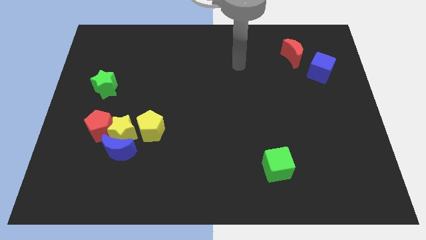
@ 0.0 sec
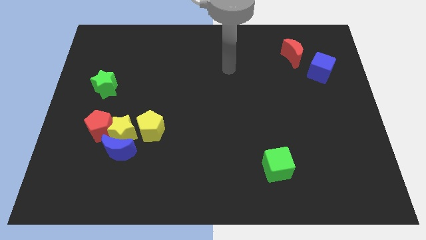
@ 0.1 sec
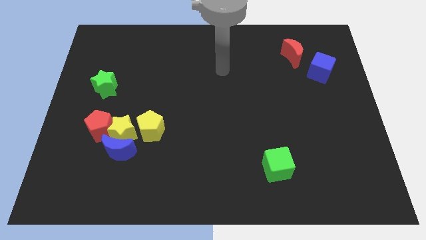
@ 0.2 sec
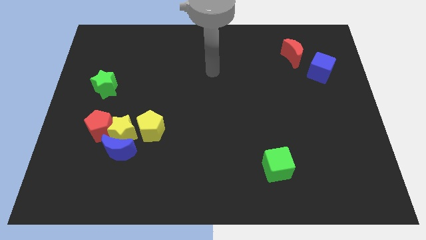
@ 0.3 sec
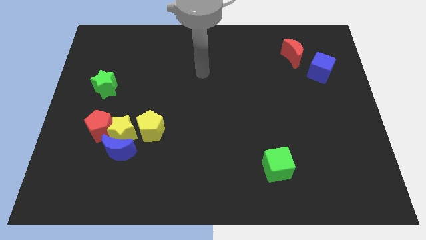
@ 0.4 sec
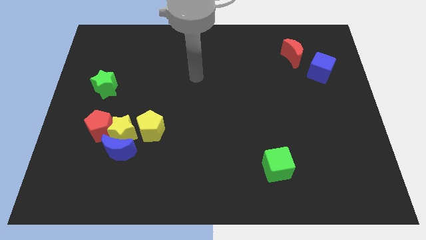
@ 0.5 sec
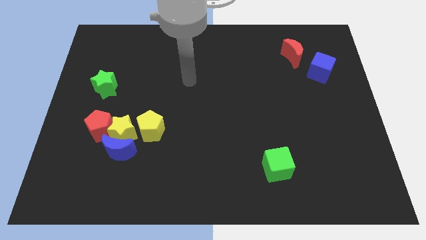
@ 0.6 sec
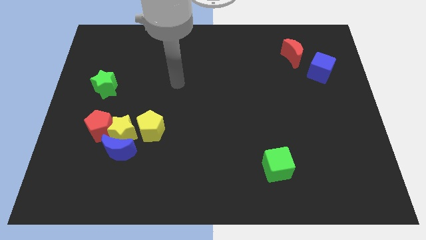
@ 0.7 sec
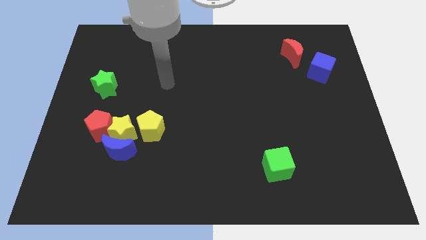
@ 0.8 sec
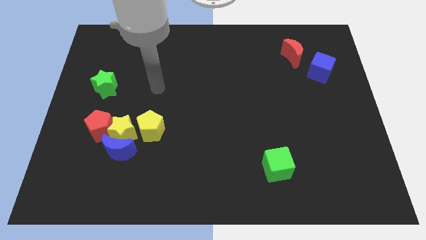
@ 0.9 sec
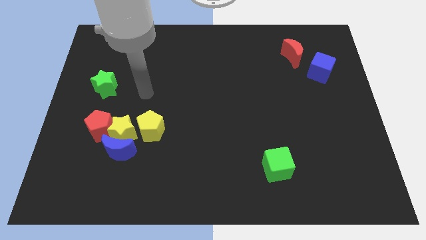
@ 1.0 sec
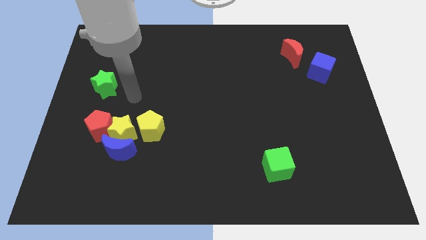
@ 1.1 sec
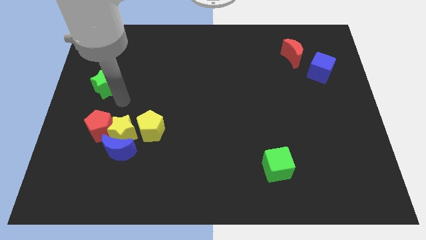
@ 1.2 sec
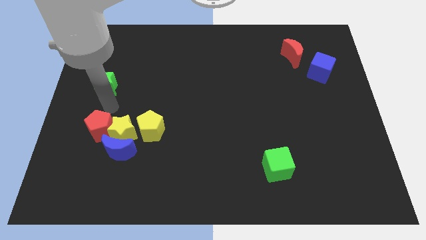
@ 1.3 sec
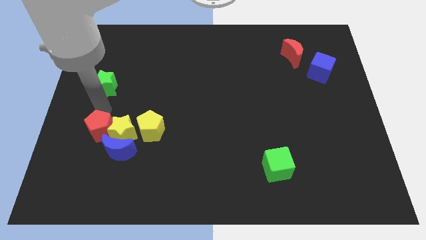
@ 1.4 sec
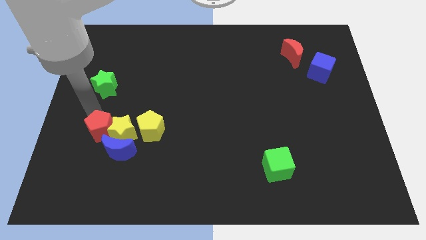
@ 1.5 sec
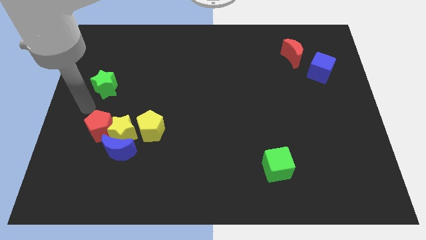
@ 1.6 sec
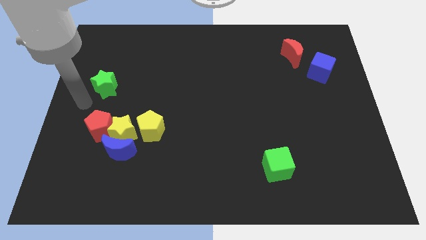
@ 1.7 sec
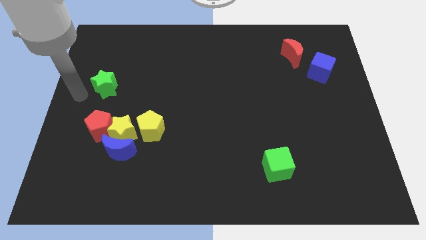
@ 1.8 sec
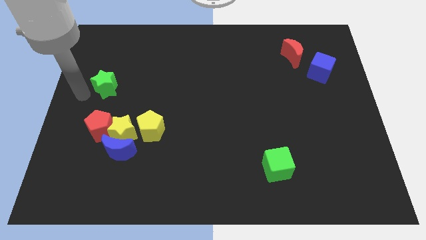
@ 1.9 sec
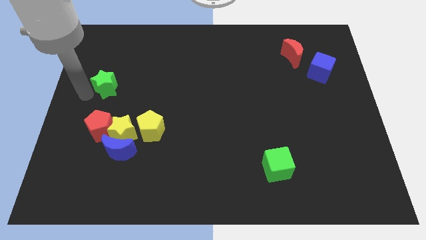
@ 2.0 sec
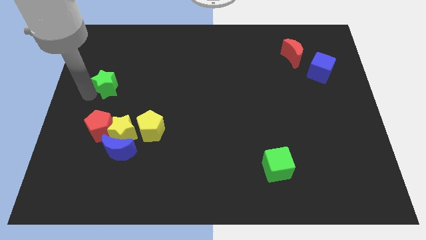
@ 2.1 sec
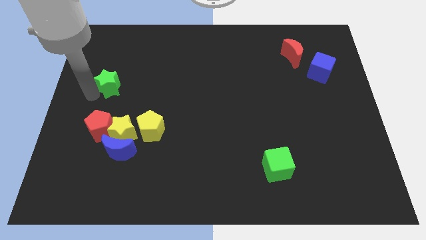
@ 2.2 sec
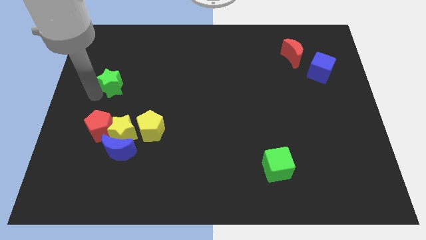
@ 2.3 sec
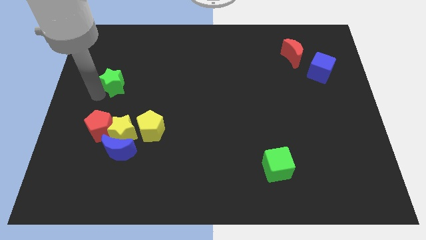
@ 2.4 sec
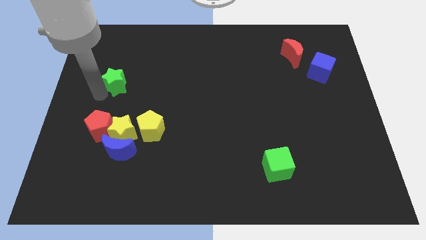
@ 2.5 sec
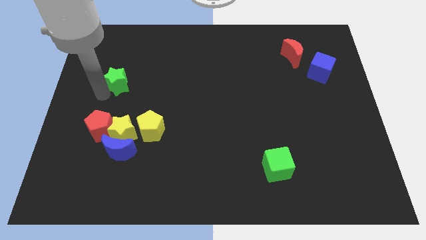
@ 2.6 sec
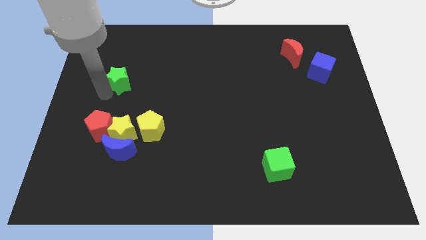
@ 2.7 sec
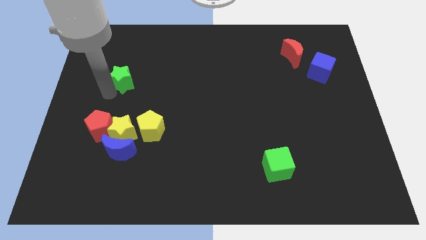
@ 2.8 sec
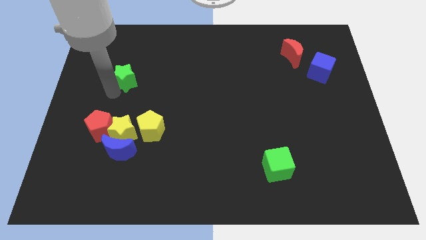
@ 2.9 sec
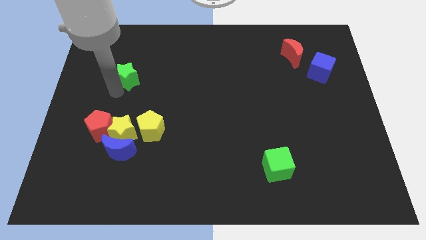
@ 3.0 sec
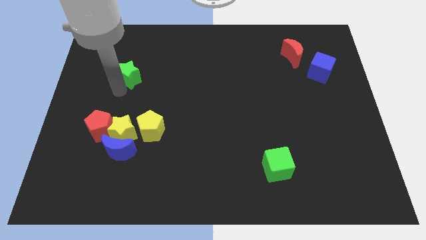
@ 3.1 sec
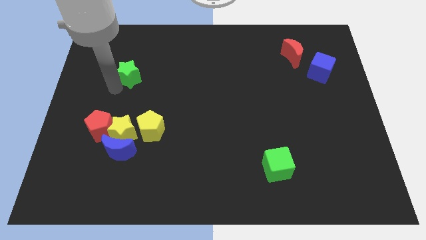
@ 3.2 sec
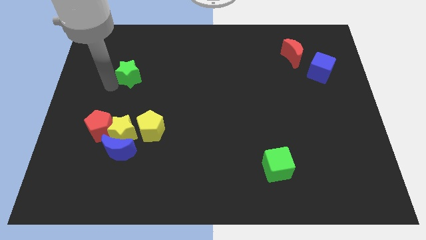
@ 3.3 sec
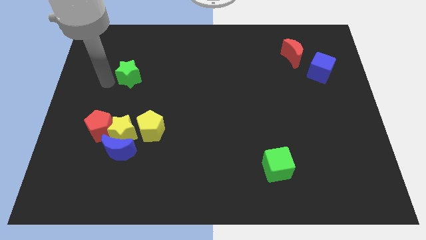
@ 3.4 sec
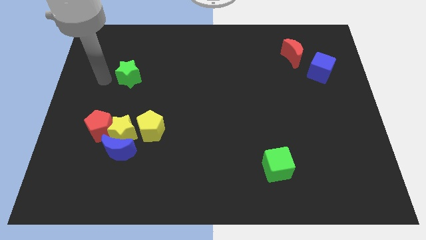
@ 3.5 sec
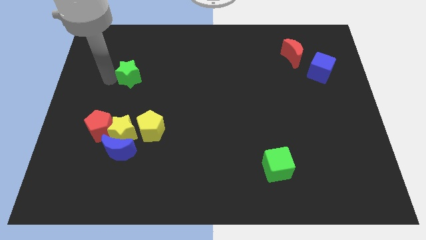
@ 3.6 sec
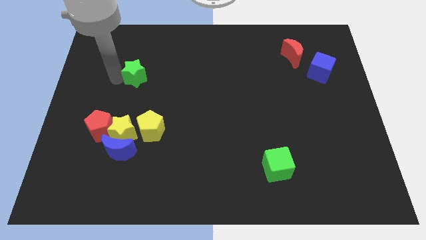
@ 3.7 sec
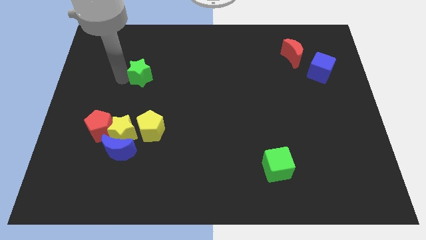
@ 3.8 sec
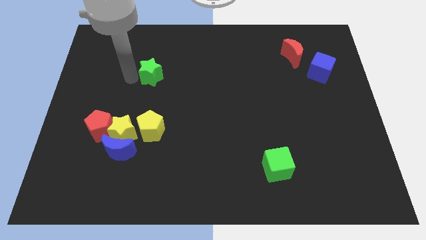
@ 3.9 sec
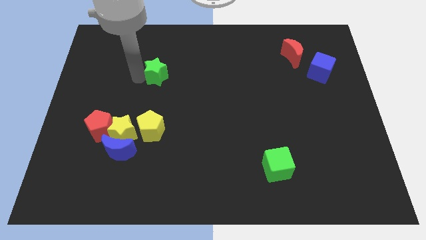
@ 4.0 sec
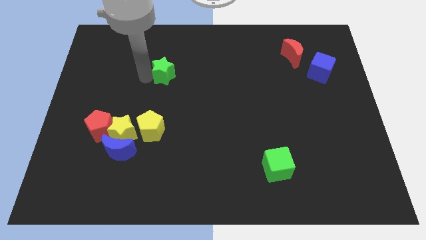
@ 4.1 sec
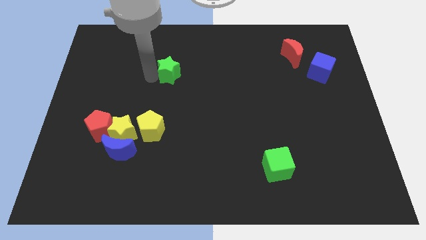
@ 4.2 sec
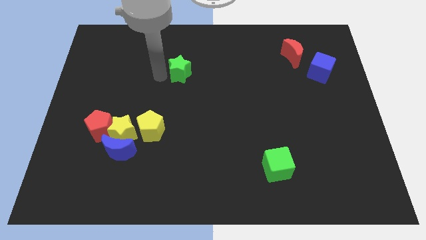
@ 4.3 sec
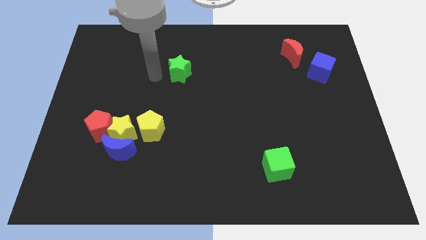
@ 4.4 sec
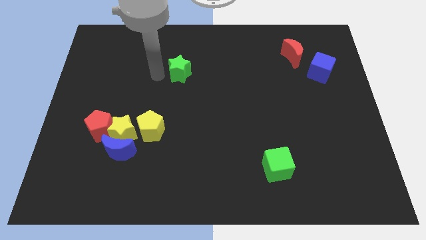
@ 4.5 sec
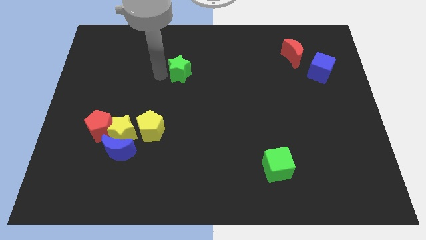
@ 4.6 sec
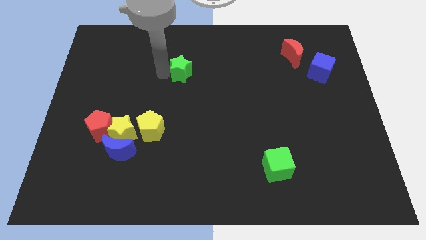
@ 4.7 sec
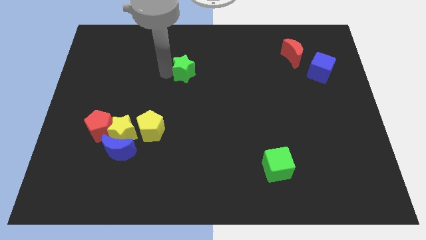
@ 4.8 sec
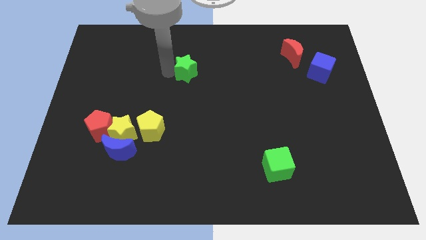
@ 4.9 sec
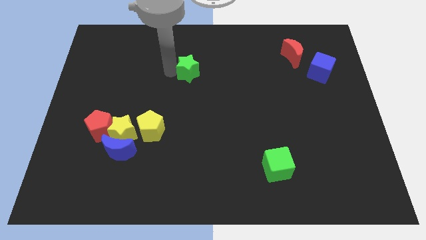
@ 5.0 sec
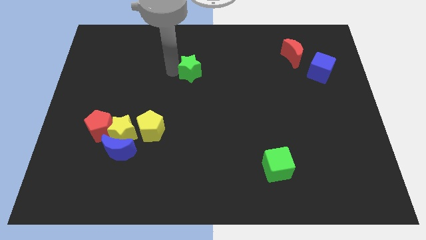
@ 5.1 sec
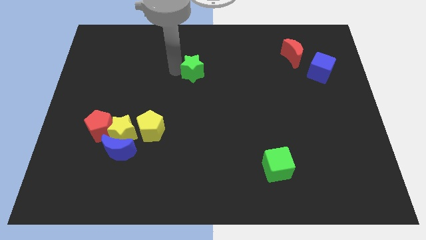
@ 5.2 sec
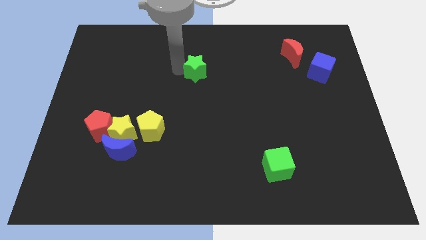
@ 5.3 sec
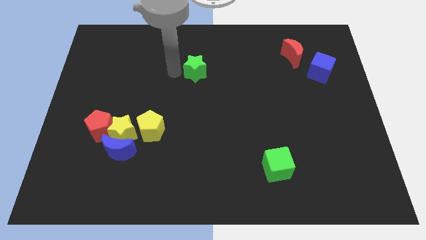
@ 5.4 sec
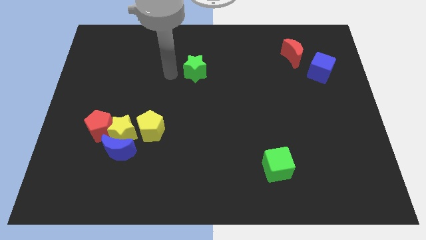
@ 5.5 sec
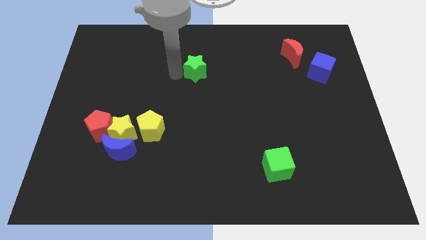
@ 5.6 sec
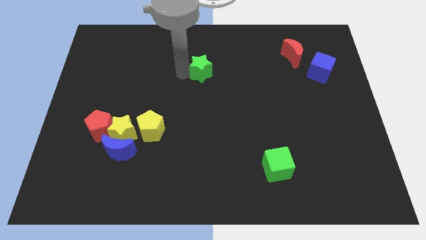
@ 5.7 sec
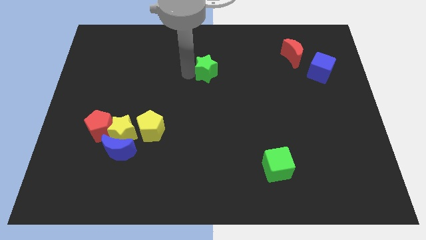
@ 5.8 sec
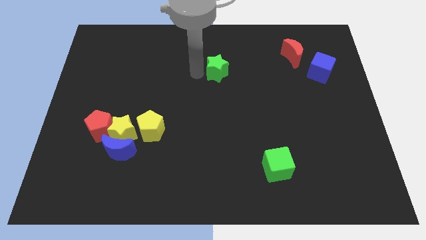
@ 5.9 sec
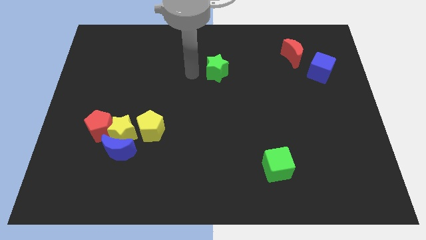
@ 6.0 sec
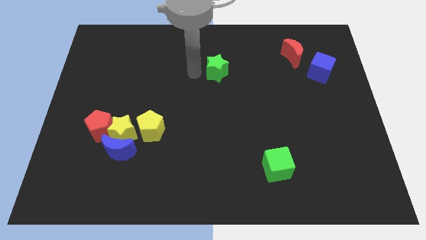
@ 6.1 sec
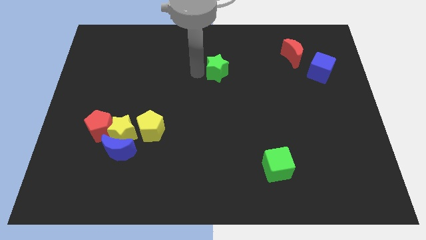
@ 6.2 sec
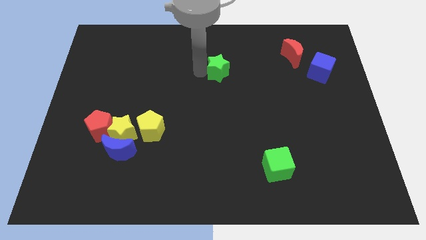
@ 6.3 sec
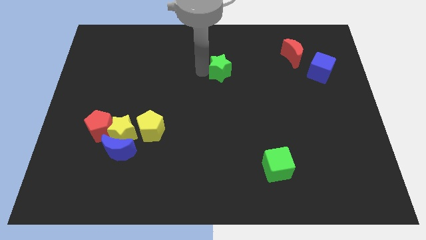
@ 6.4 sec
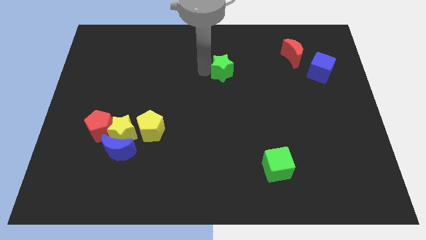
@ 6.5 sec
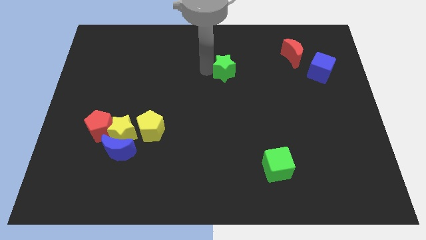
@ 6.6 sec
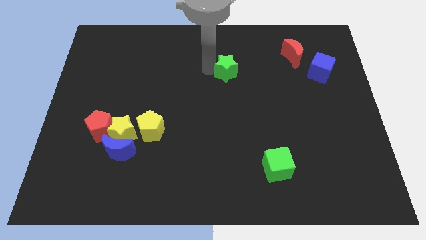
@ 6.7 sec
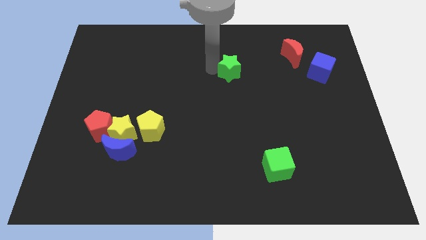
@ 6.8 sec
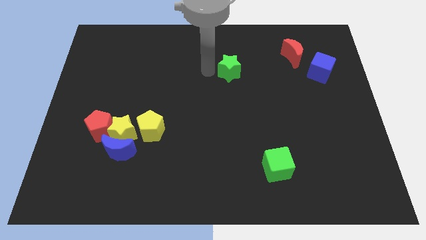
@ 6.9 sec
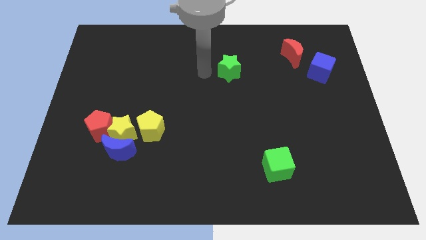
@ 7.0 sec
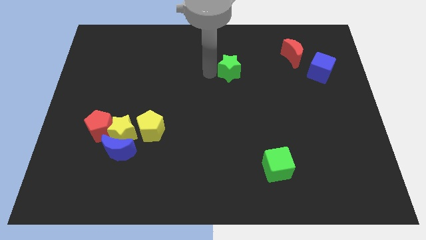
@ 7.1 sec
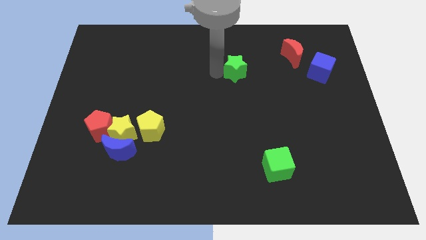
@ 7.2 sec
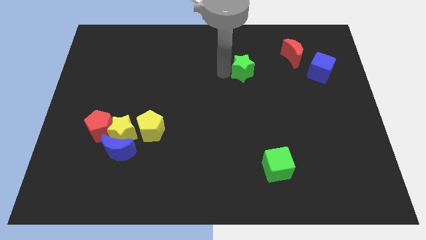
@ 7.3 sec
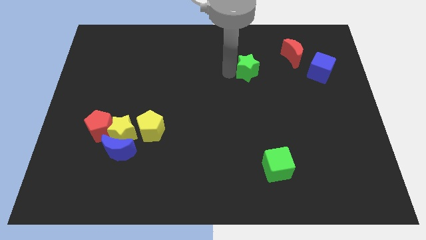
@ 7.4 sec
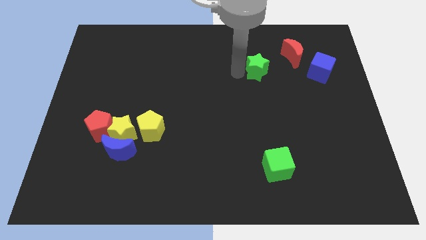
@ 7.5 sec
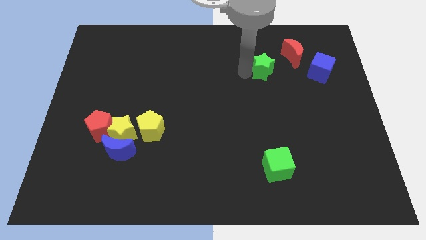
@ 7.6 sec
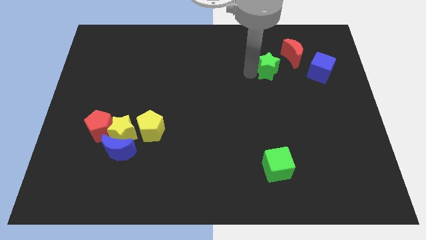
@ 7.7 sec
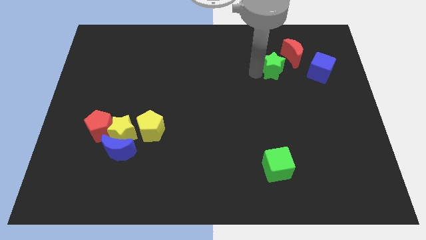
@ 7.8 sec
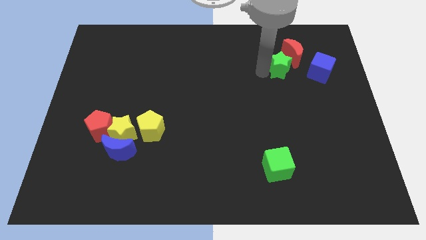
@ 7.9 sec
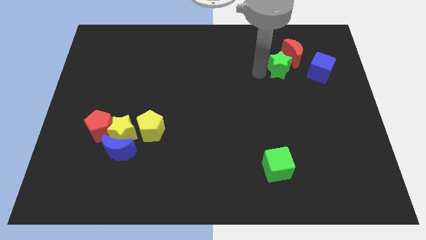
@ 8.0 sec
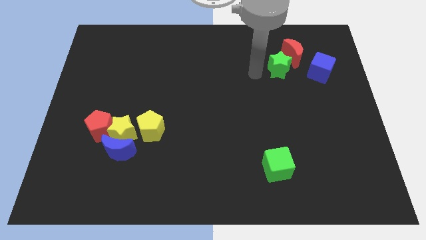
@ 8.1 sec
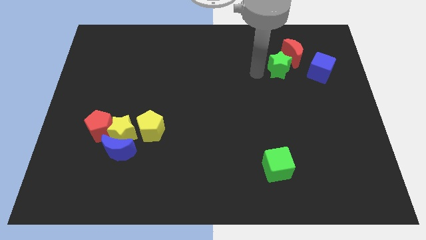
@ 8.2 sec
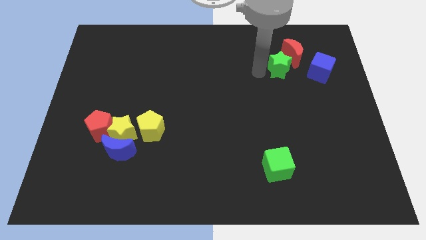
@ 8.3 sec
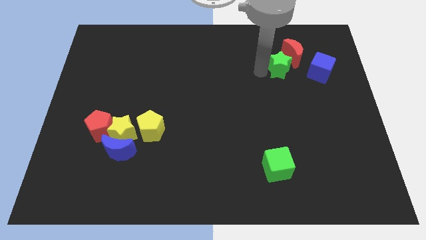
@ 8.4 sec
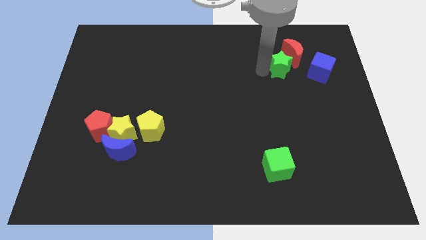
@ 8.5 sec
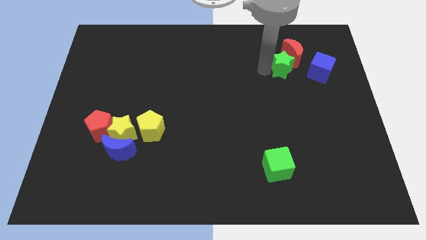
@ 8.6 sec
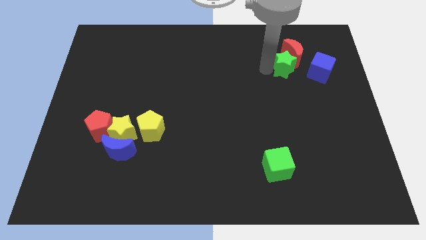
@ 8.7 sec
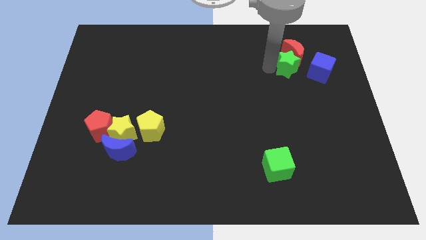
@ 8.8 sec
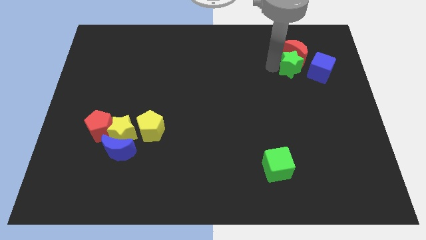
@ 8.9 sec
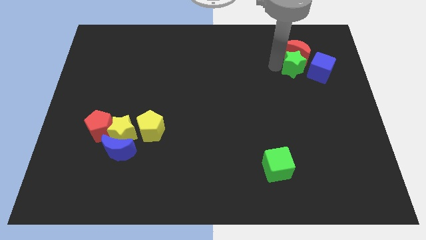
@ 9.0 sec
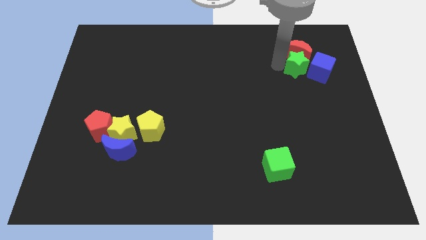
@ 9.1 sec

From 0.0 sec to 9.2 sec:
put the green star to the blue cube
